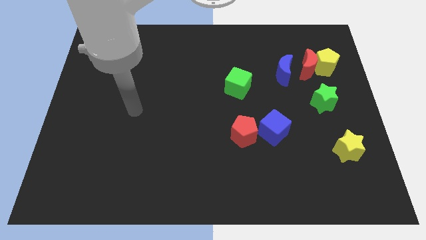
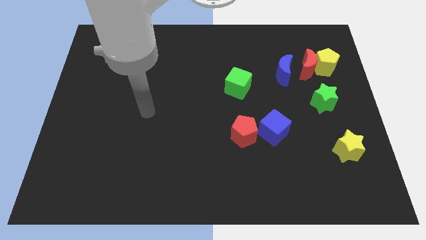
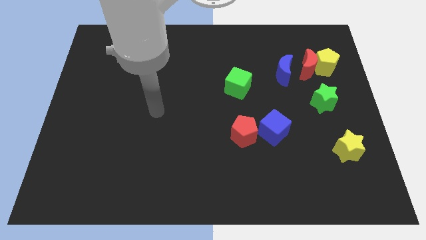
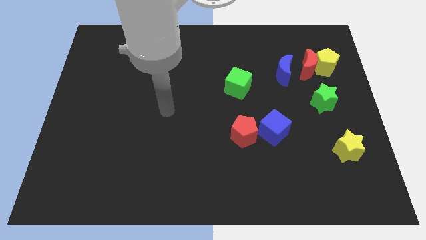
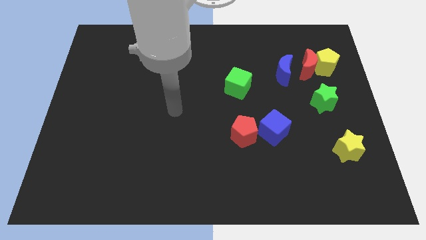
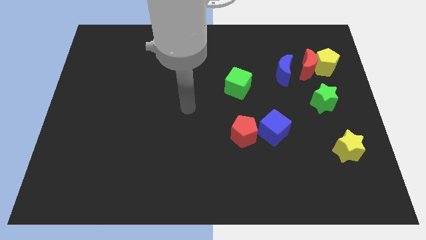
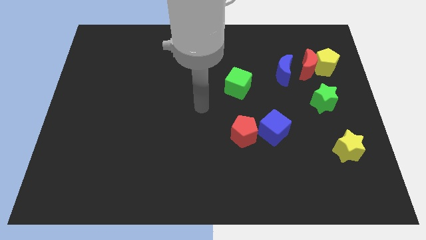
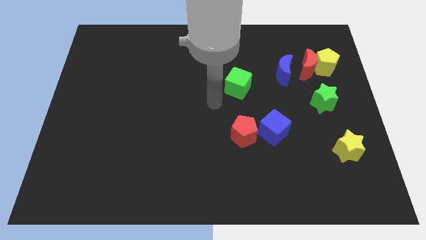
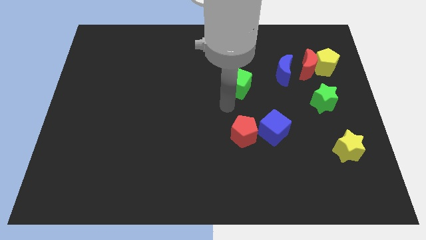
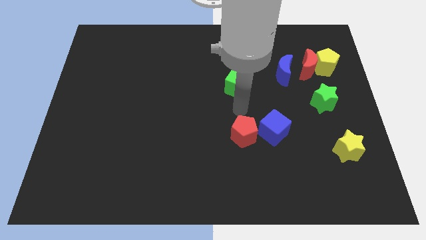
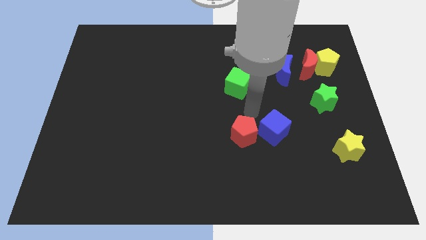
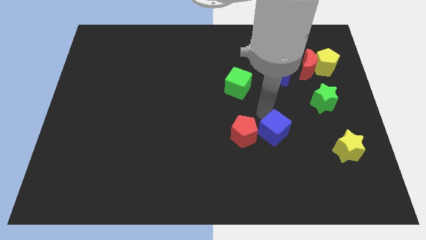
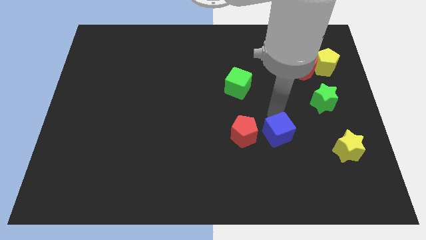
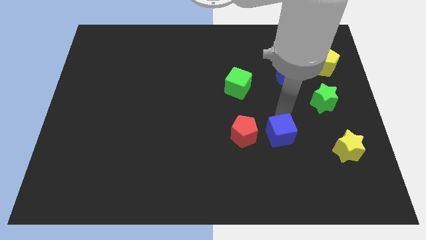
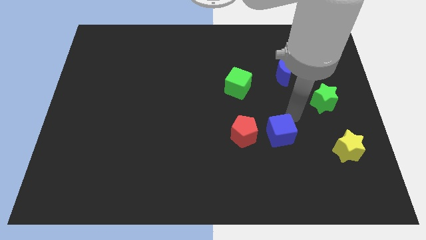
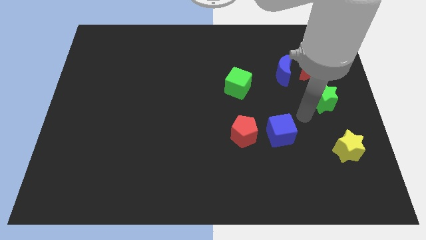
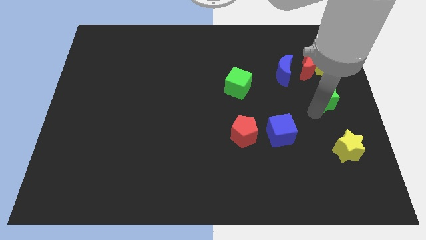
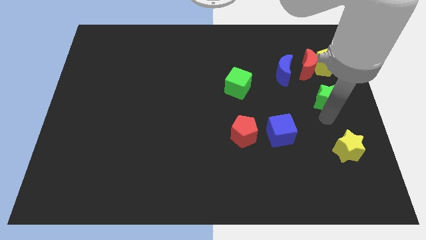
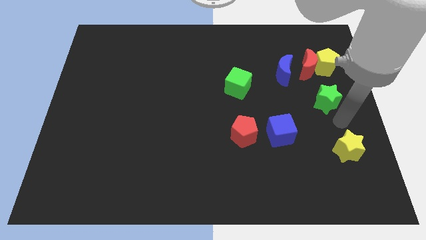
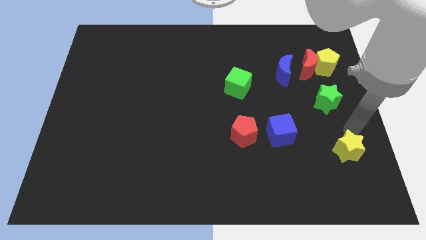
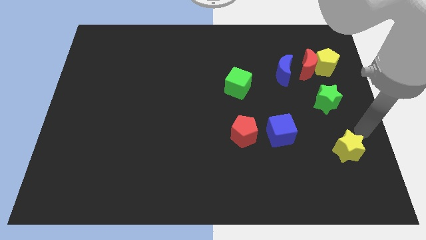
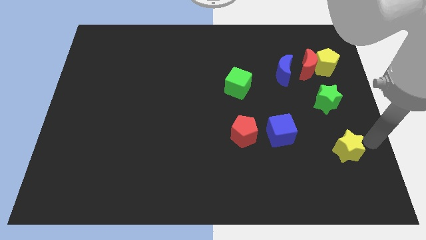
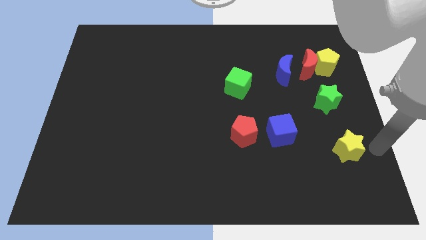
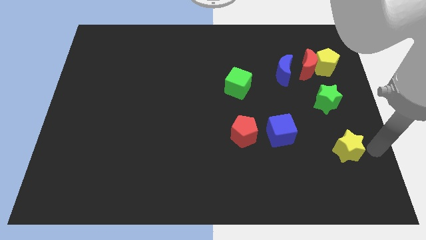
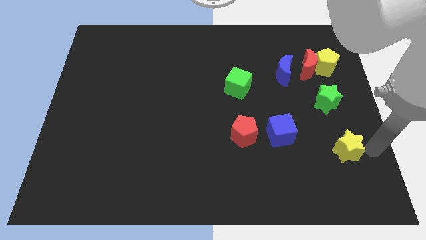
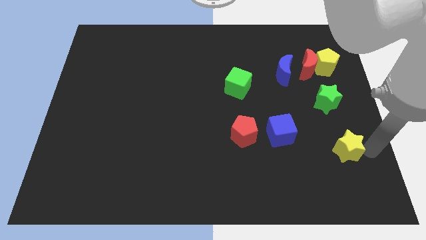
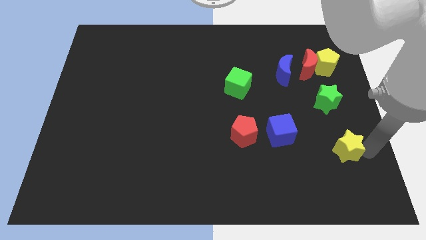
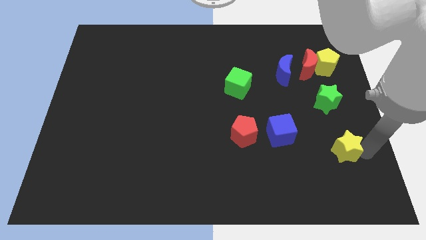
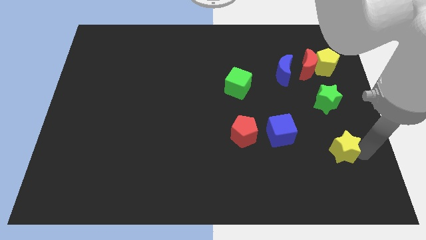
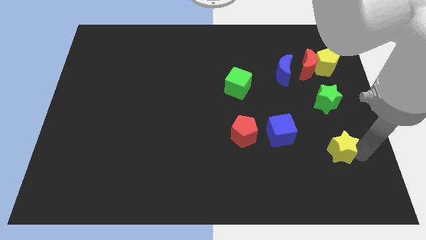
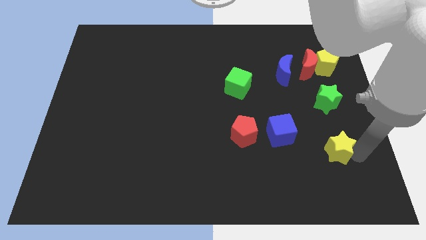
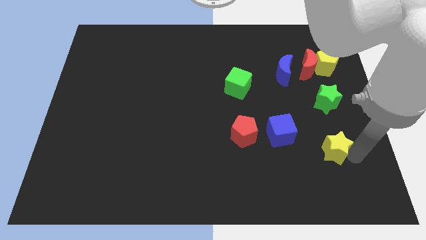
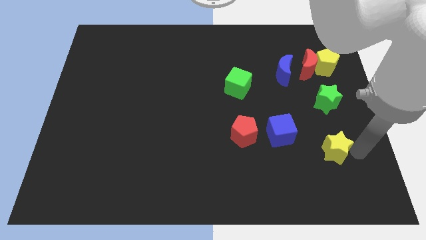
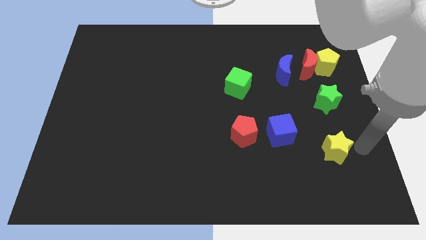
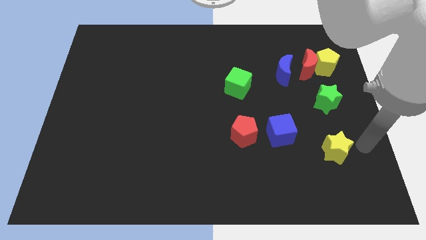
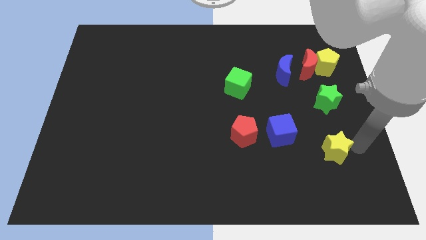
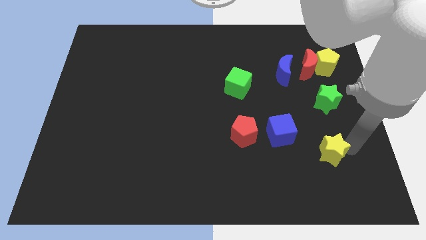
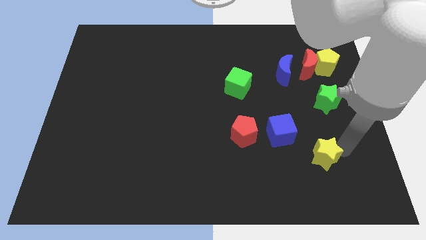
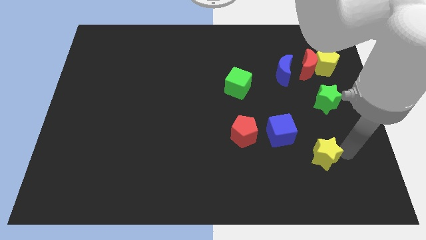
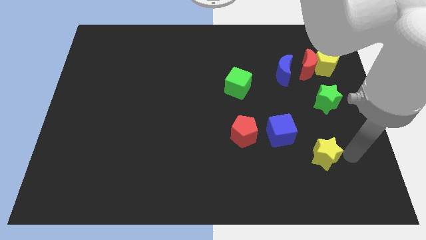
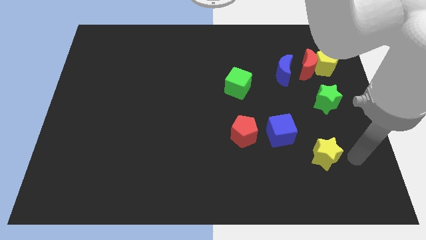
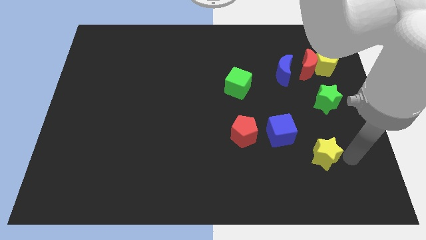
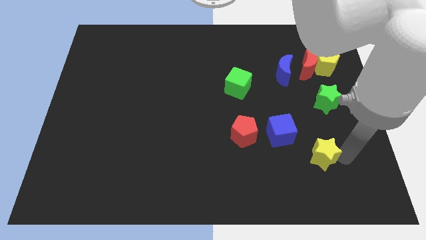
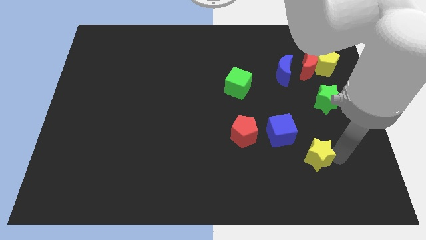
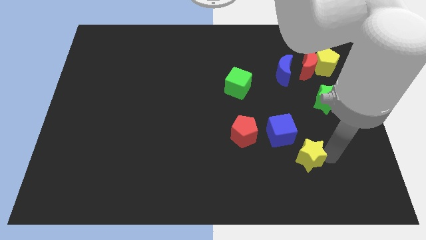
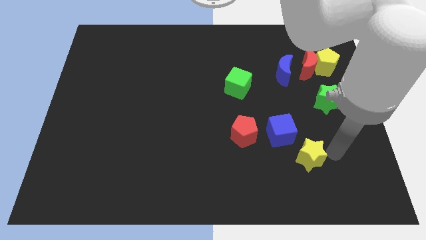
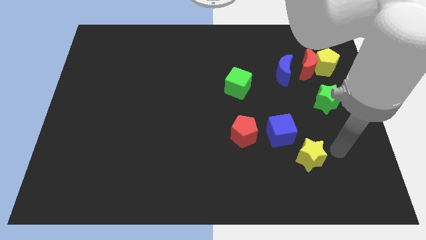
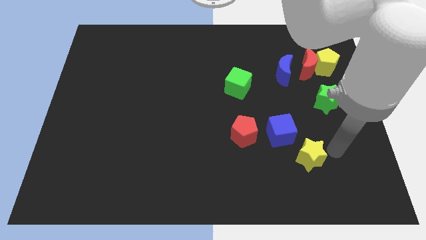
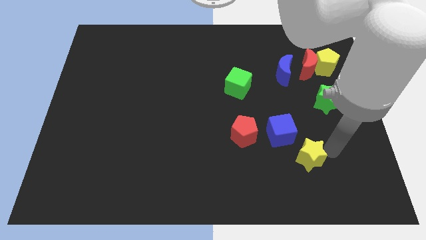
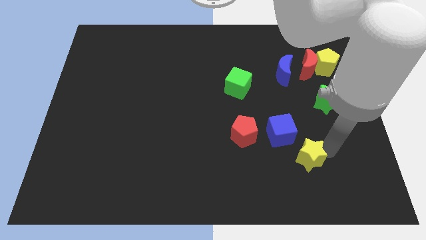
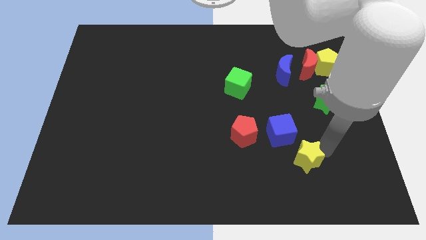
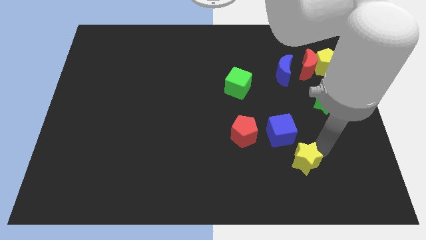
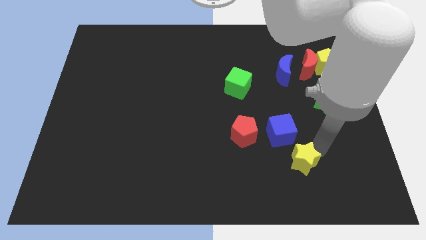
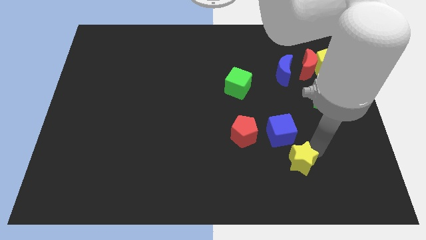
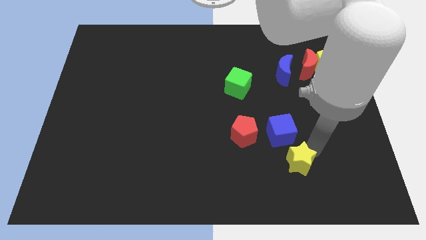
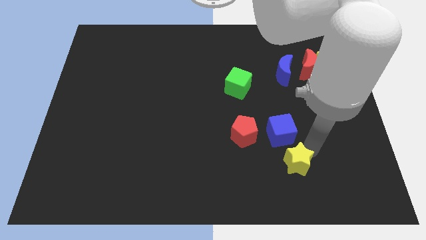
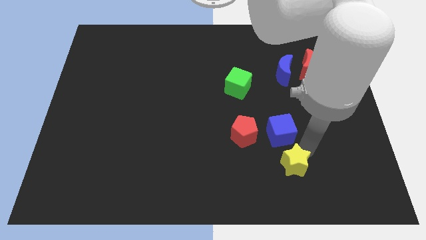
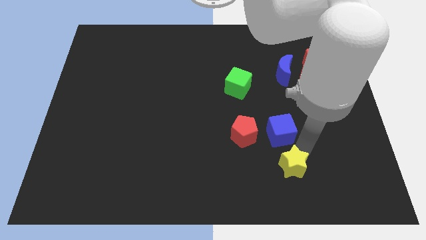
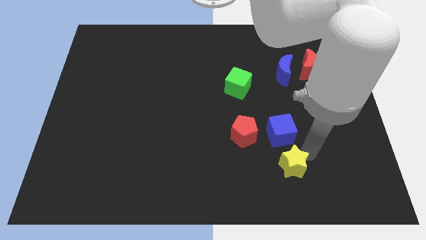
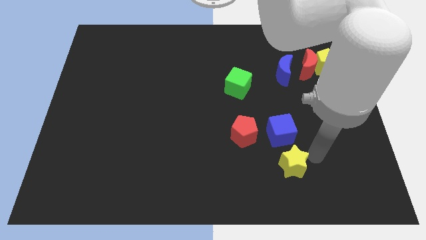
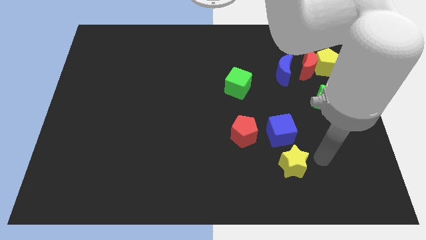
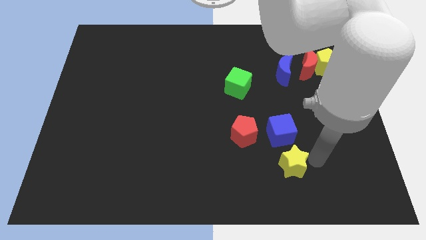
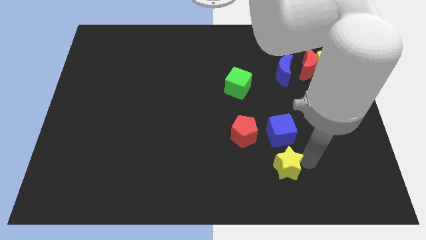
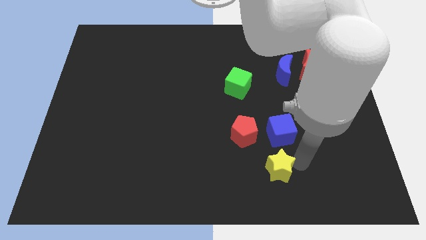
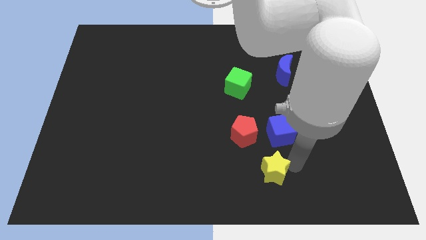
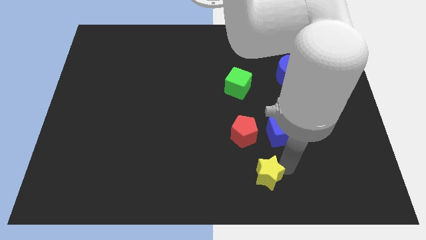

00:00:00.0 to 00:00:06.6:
put the yellow star below the red pentagon

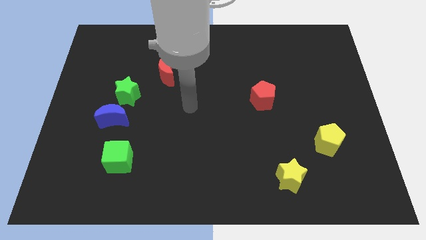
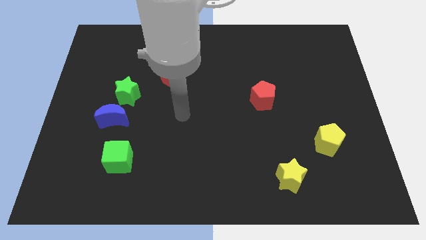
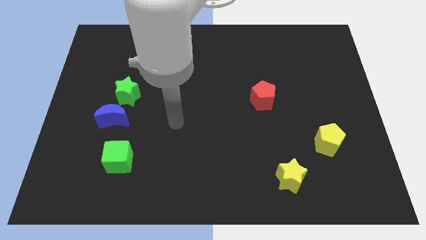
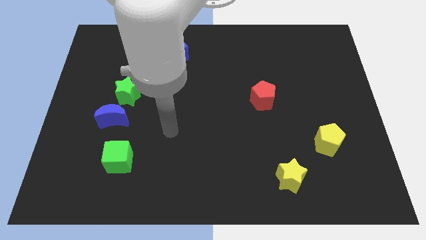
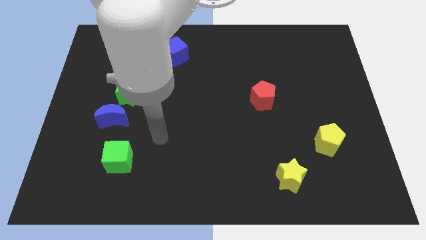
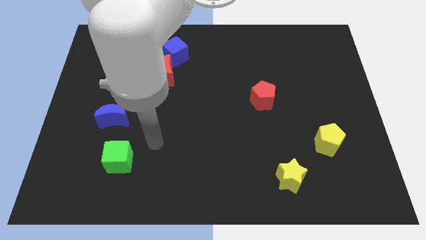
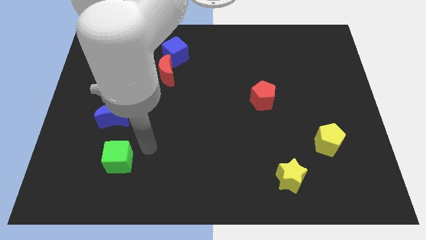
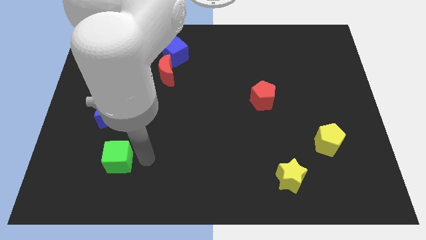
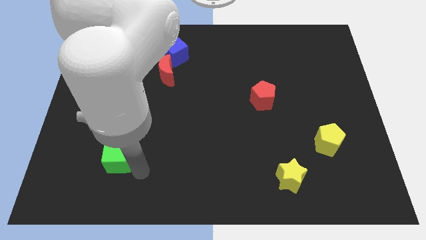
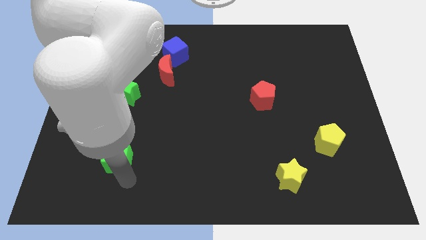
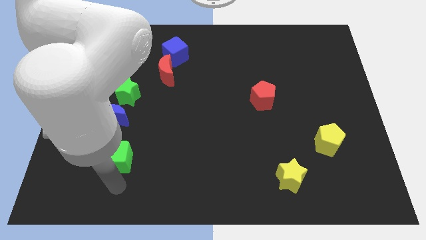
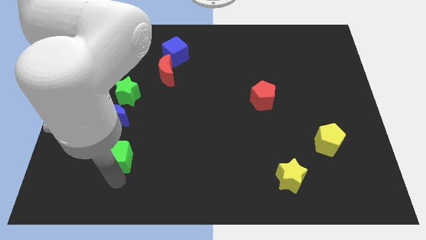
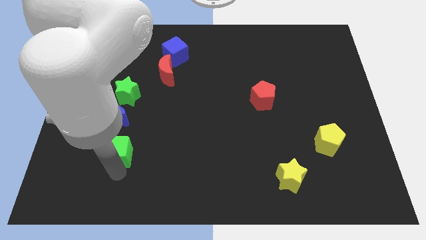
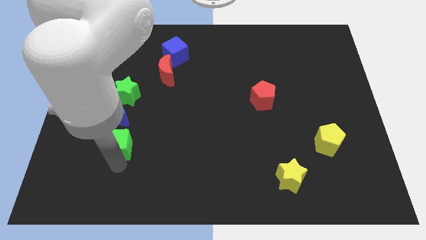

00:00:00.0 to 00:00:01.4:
move the green cube to the bottom of the green star

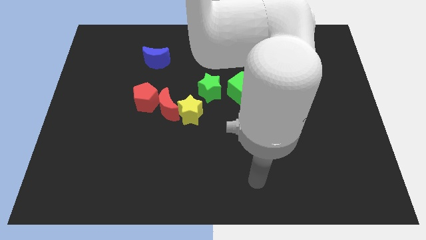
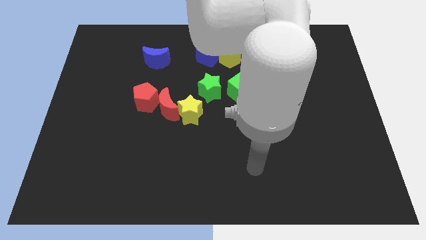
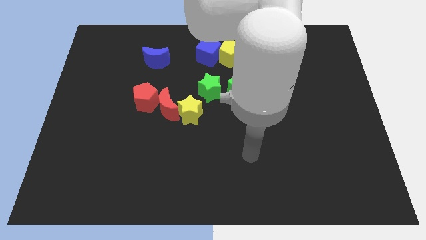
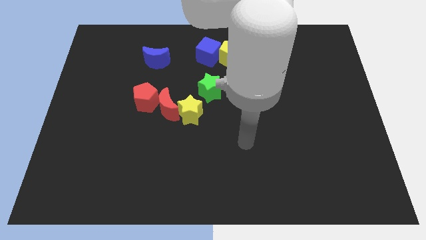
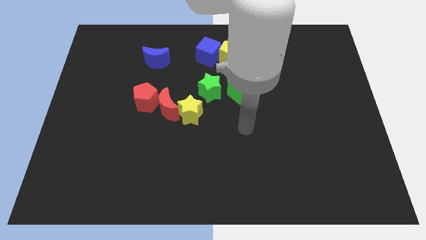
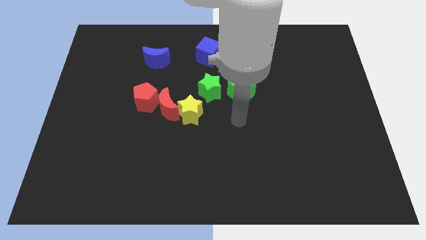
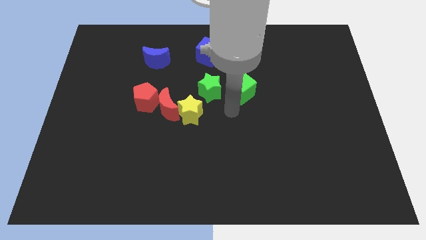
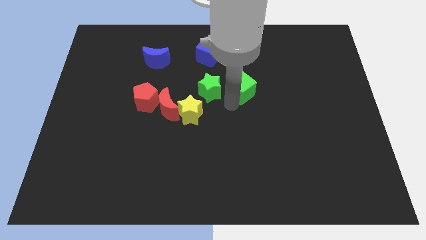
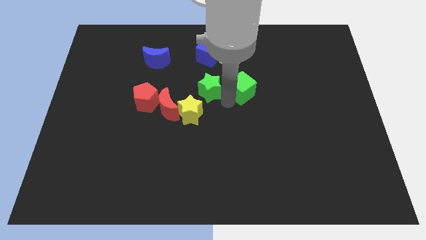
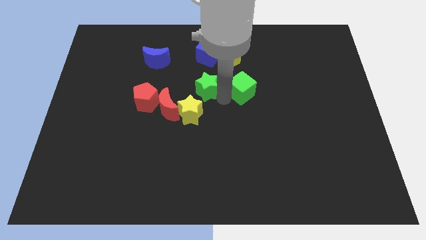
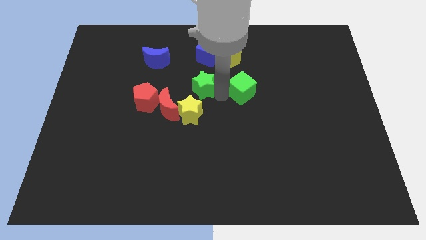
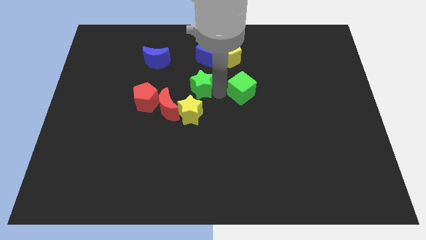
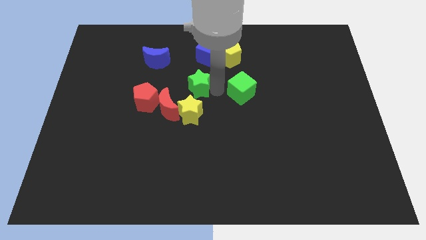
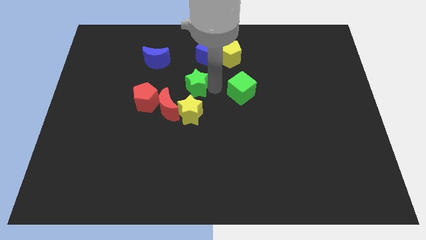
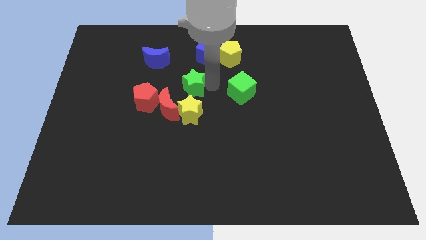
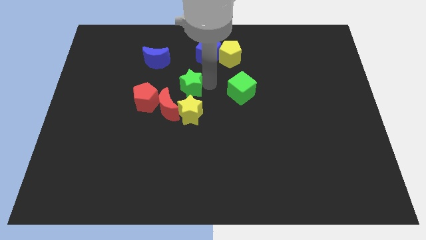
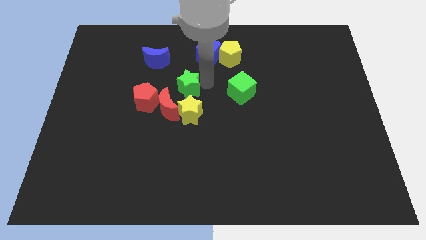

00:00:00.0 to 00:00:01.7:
move the green star above the red moon
